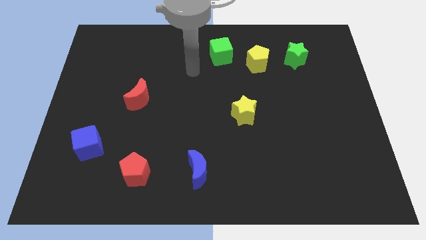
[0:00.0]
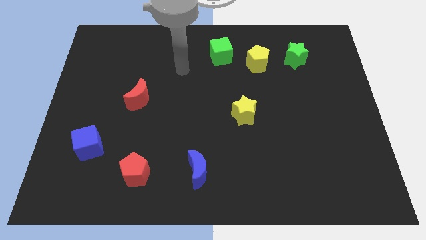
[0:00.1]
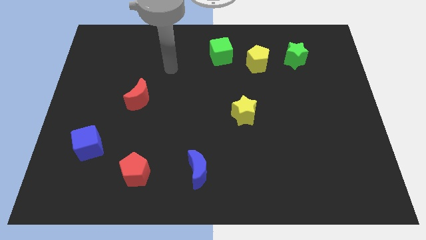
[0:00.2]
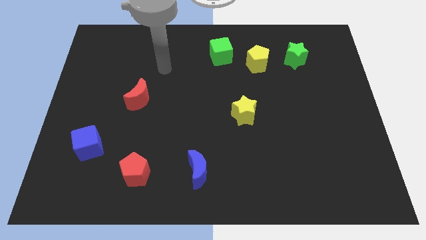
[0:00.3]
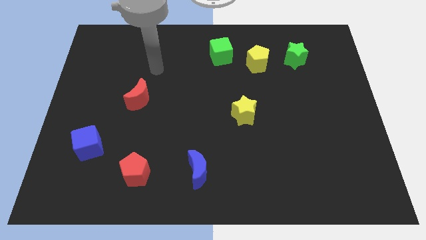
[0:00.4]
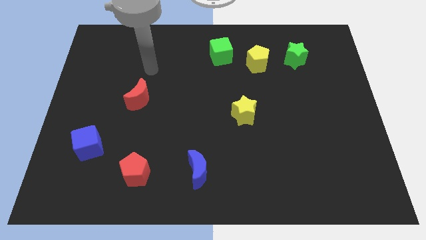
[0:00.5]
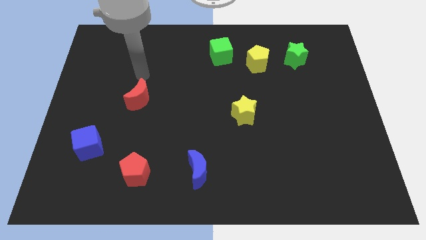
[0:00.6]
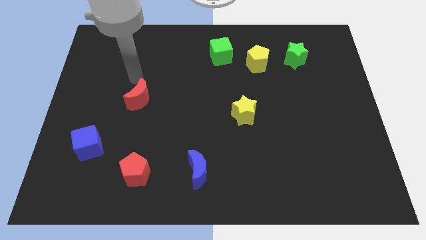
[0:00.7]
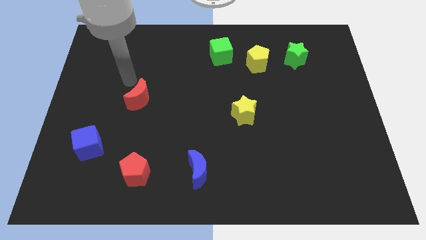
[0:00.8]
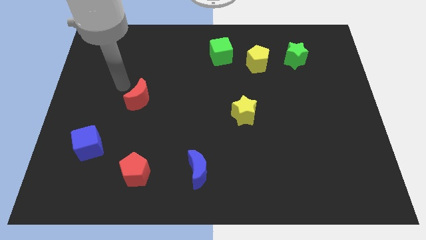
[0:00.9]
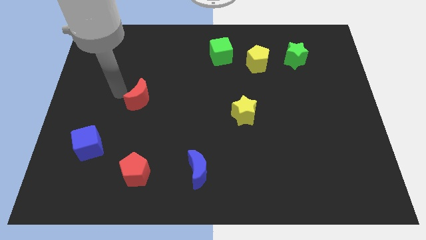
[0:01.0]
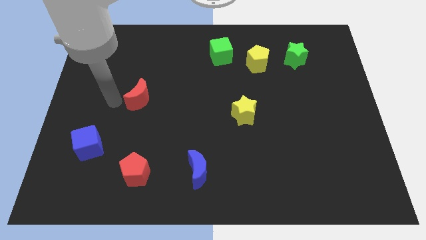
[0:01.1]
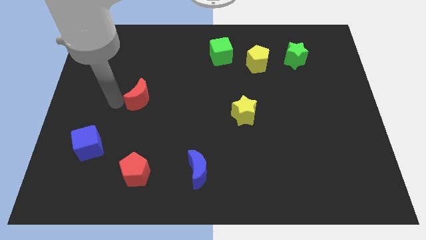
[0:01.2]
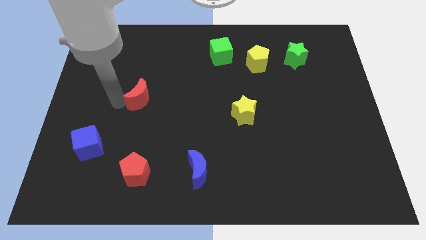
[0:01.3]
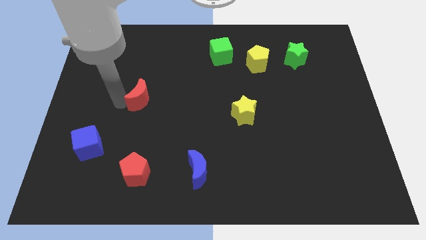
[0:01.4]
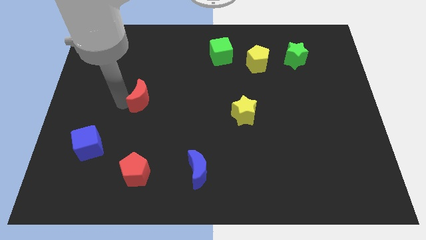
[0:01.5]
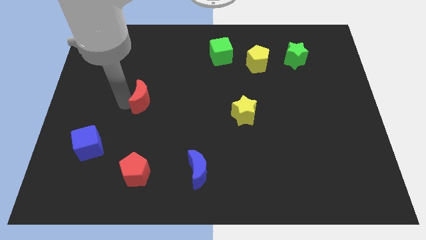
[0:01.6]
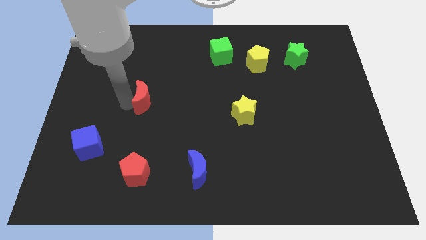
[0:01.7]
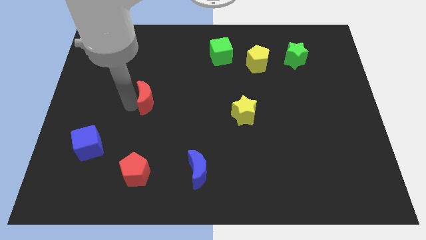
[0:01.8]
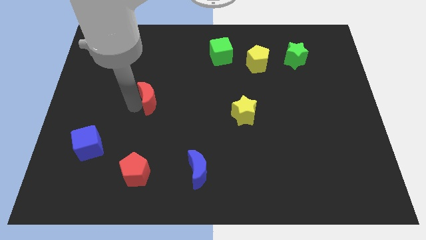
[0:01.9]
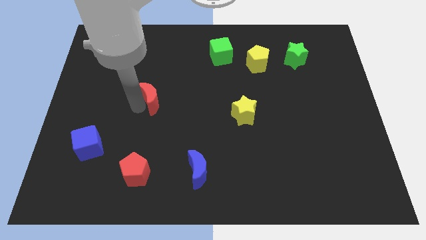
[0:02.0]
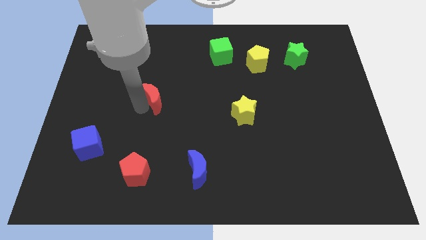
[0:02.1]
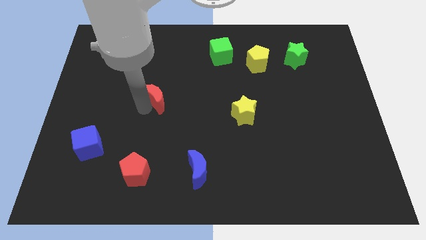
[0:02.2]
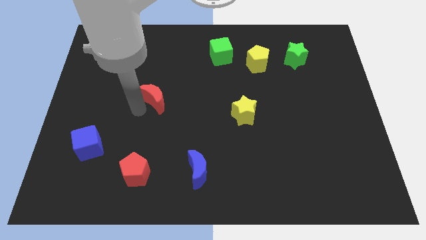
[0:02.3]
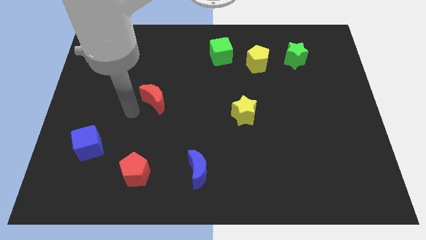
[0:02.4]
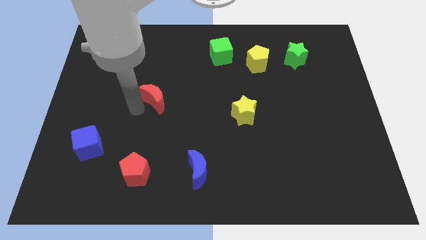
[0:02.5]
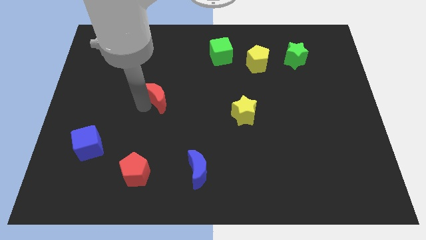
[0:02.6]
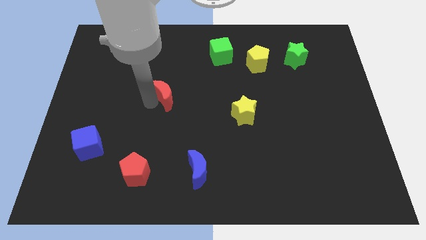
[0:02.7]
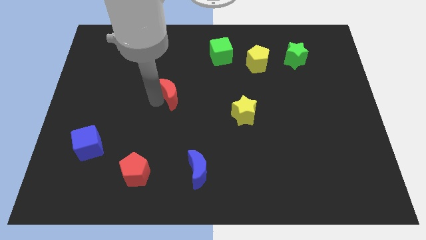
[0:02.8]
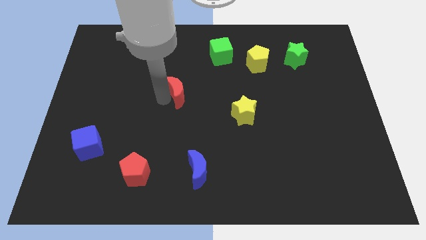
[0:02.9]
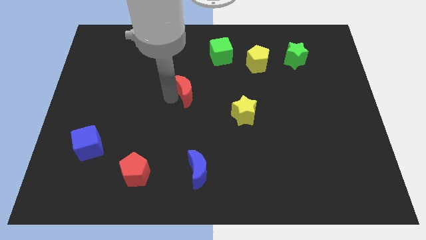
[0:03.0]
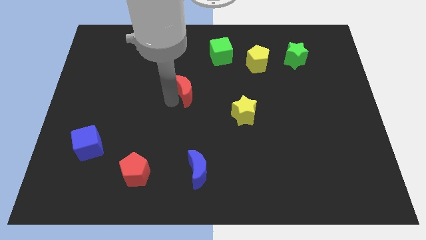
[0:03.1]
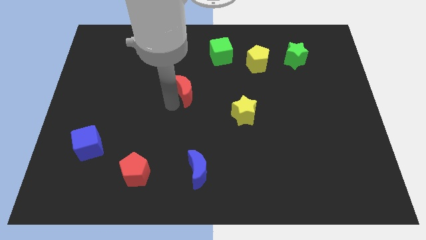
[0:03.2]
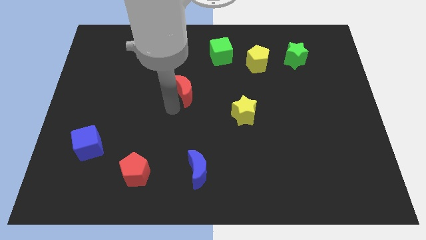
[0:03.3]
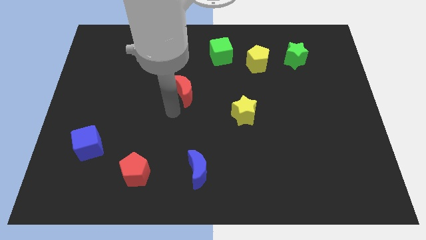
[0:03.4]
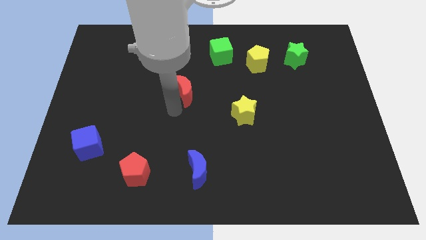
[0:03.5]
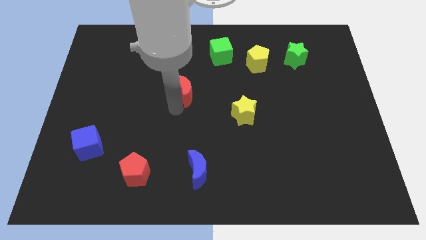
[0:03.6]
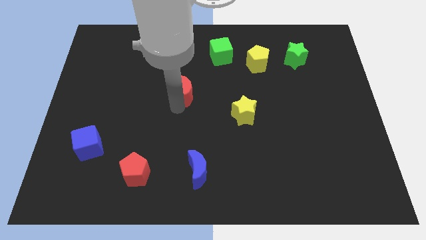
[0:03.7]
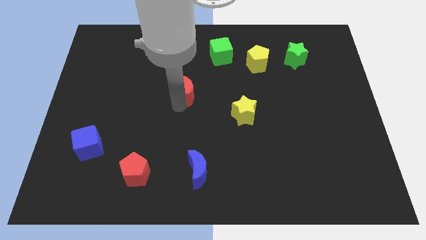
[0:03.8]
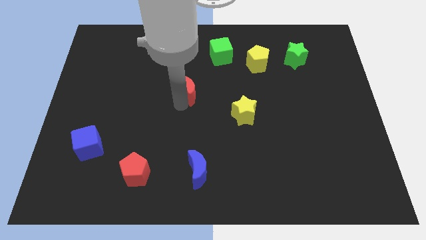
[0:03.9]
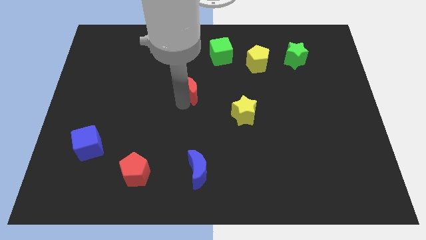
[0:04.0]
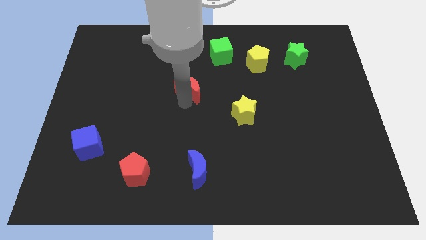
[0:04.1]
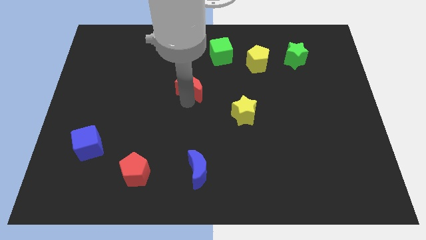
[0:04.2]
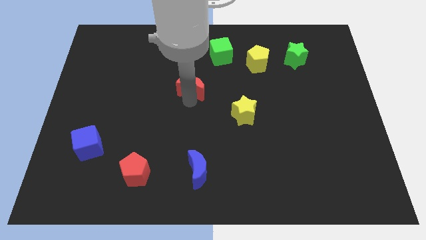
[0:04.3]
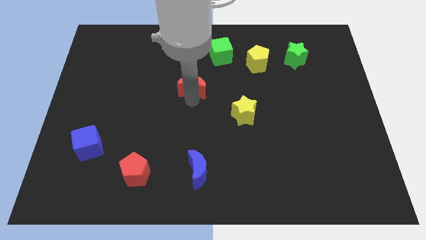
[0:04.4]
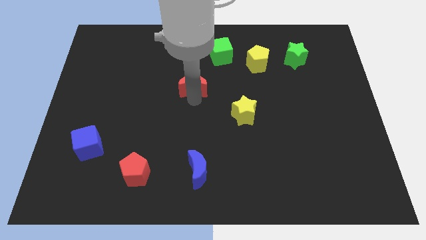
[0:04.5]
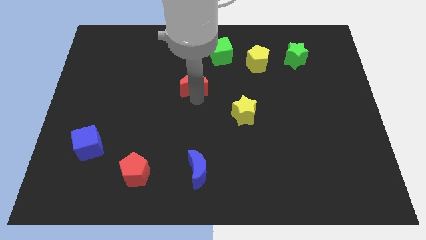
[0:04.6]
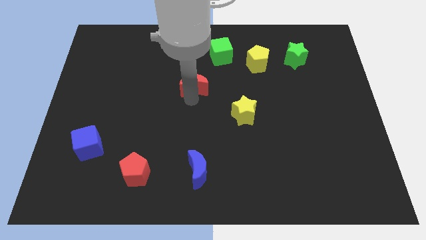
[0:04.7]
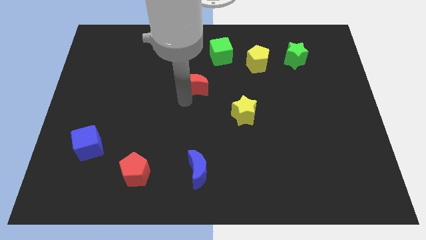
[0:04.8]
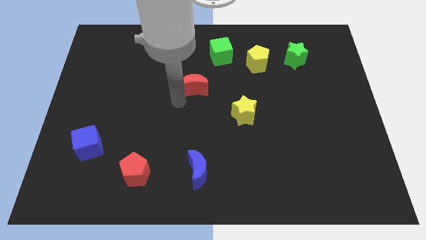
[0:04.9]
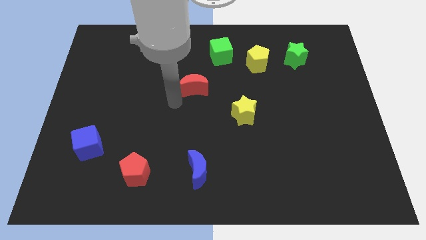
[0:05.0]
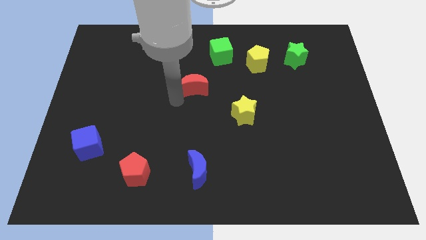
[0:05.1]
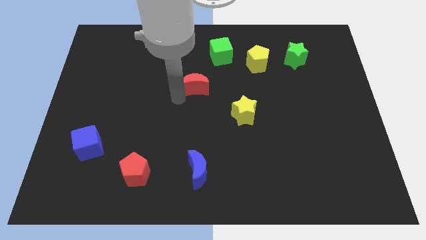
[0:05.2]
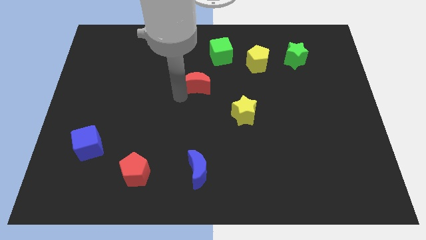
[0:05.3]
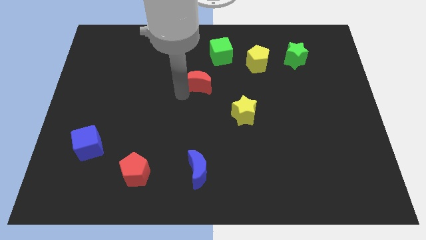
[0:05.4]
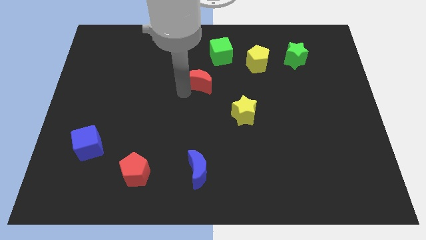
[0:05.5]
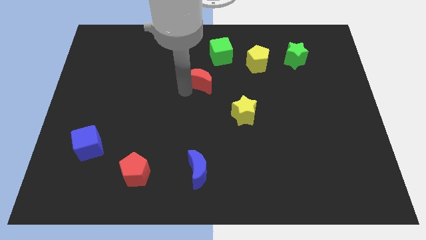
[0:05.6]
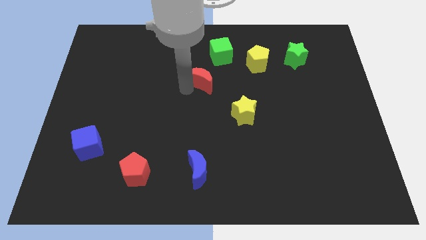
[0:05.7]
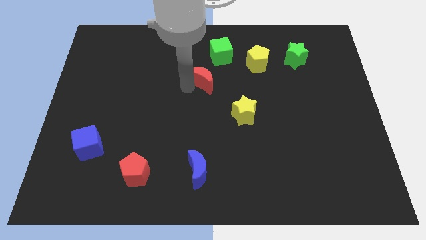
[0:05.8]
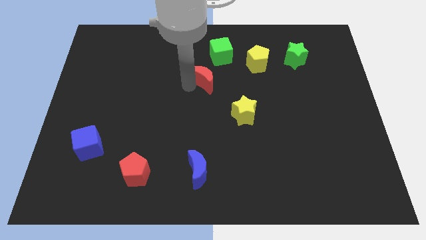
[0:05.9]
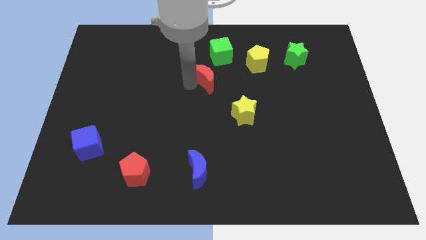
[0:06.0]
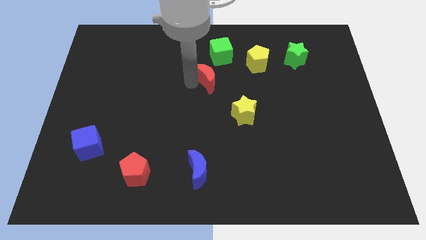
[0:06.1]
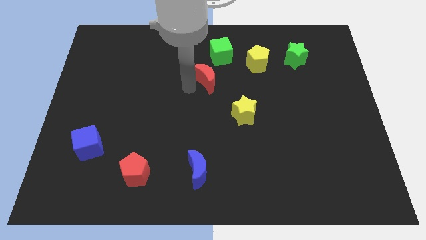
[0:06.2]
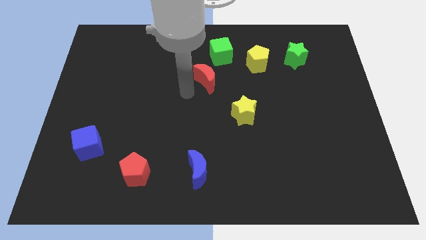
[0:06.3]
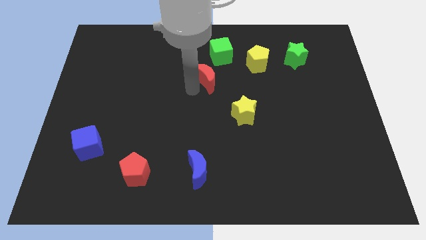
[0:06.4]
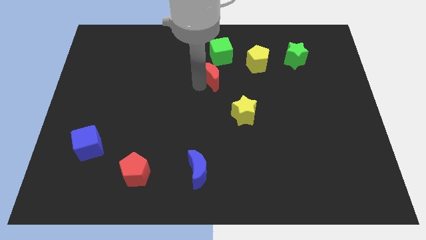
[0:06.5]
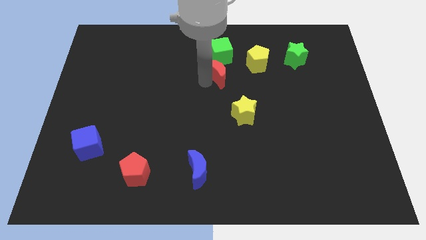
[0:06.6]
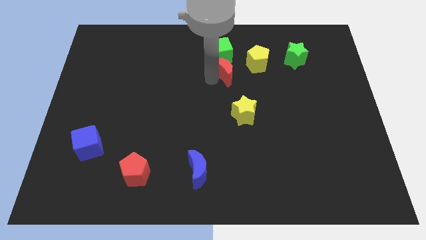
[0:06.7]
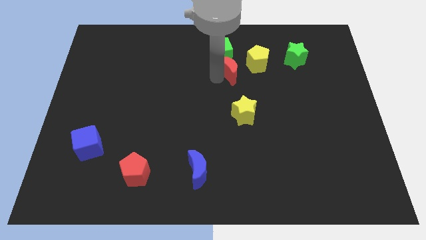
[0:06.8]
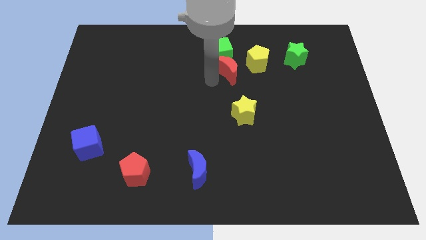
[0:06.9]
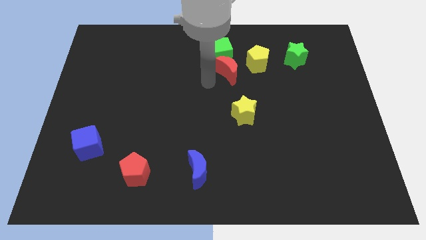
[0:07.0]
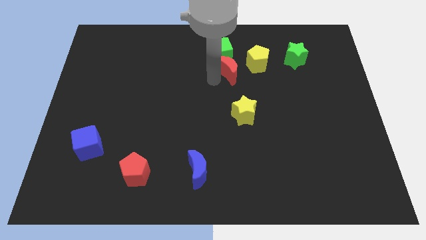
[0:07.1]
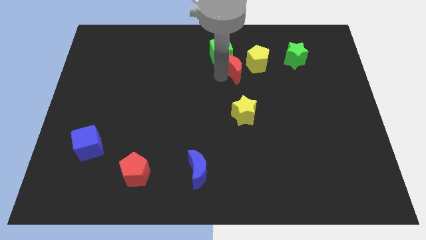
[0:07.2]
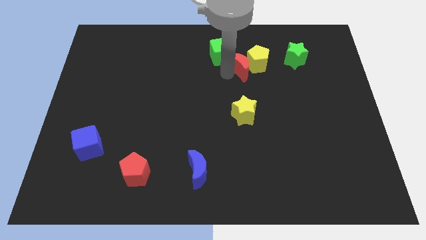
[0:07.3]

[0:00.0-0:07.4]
push the red moon left of the green star
